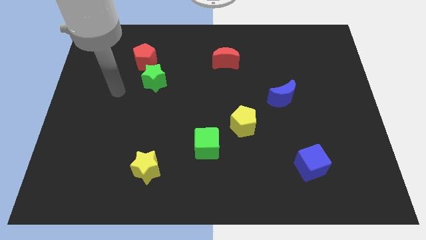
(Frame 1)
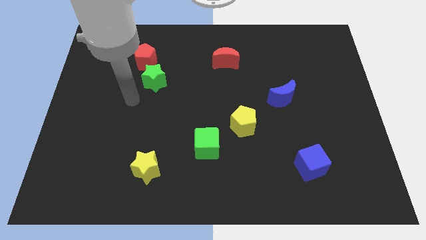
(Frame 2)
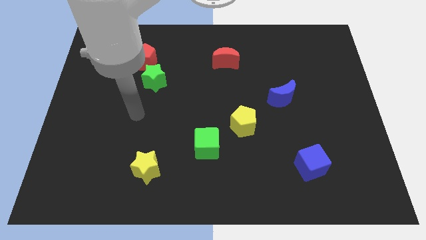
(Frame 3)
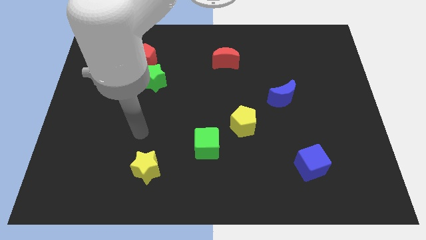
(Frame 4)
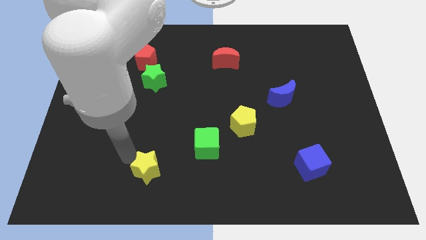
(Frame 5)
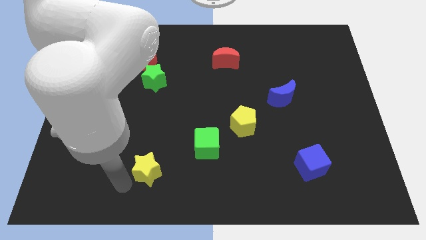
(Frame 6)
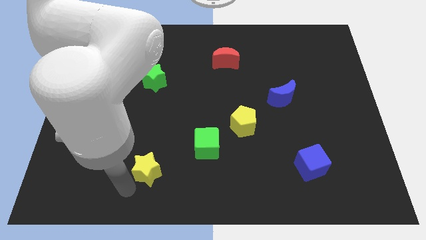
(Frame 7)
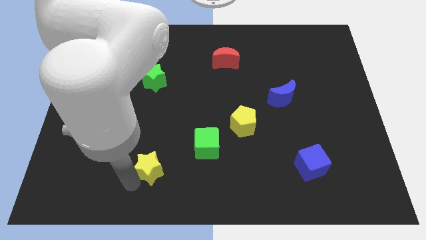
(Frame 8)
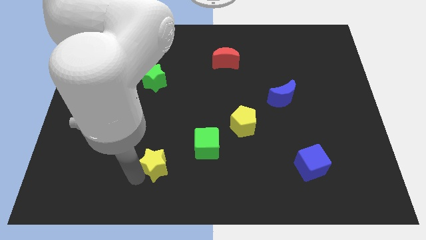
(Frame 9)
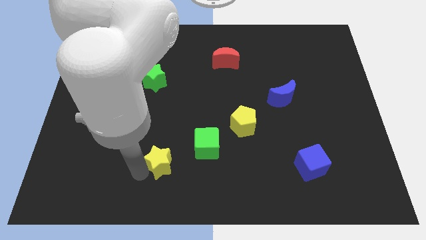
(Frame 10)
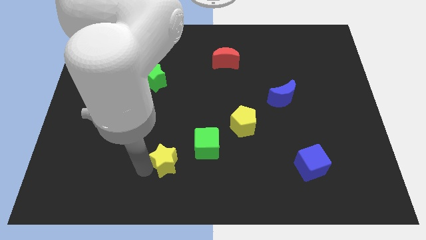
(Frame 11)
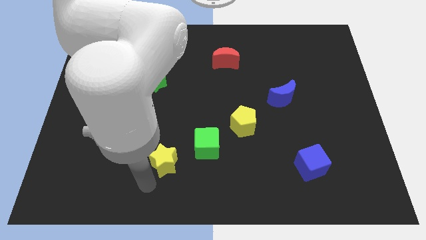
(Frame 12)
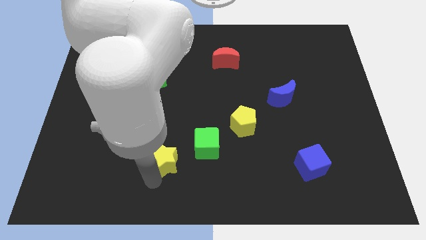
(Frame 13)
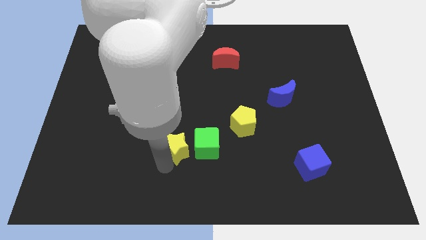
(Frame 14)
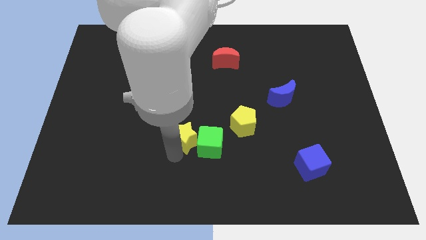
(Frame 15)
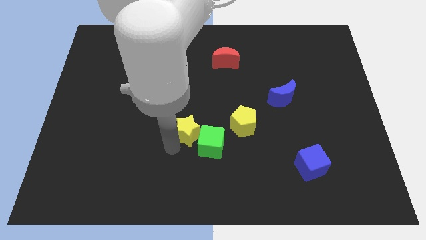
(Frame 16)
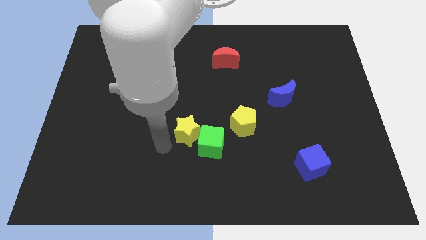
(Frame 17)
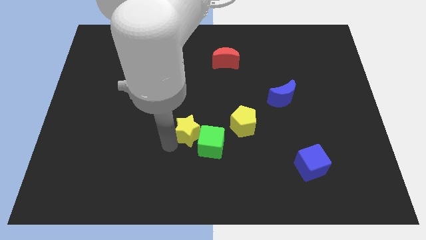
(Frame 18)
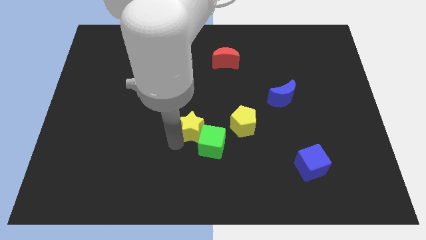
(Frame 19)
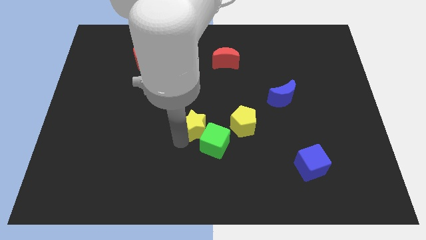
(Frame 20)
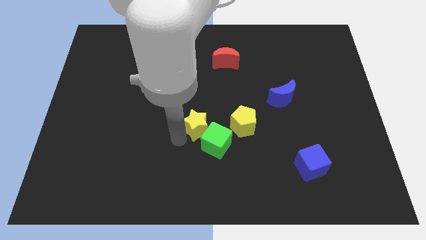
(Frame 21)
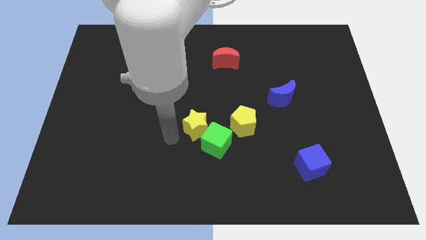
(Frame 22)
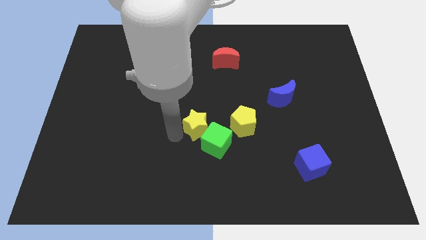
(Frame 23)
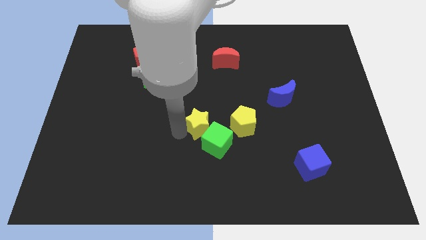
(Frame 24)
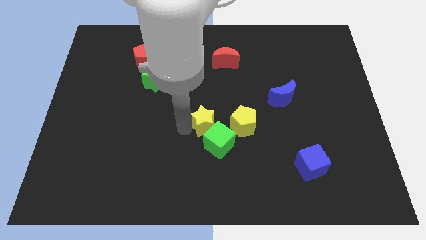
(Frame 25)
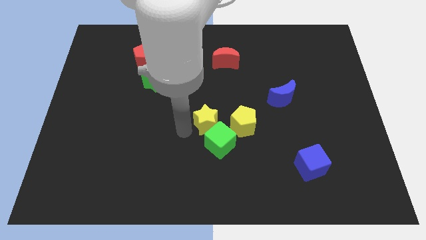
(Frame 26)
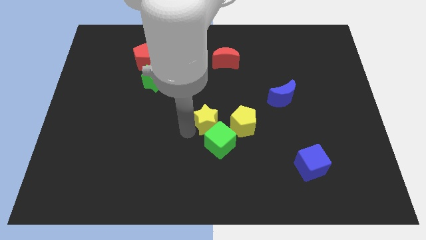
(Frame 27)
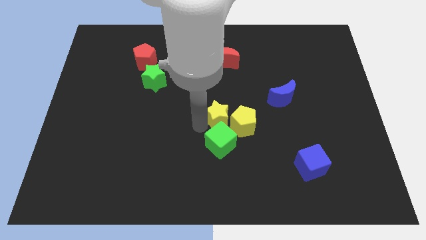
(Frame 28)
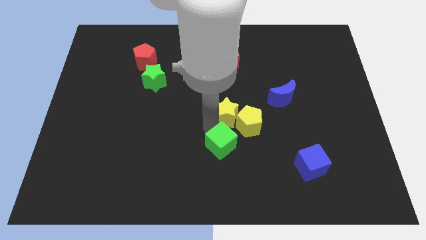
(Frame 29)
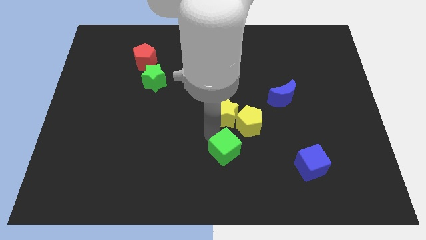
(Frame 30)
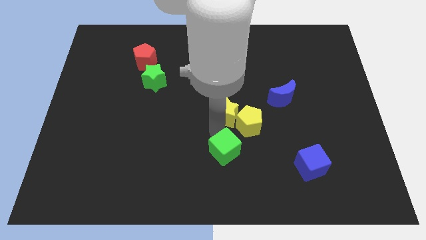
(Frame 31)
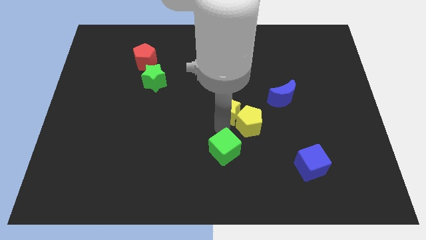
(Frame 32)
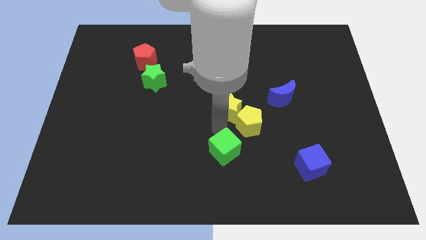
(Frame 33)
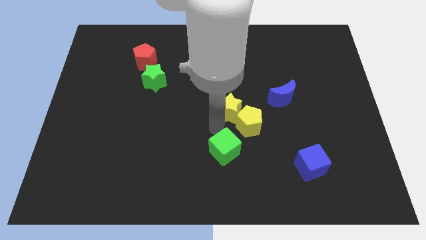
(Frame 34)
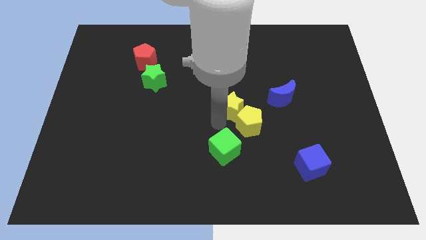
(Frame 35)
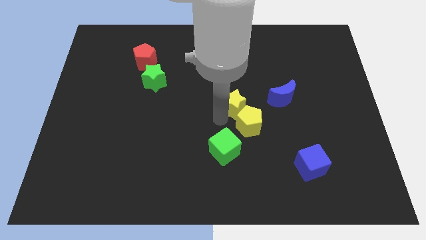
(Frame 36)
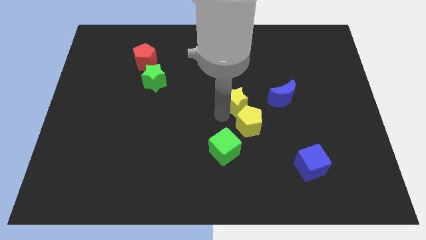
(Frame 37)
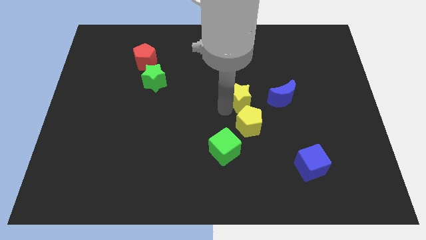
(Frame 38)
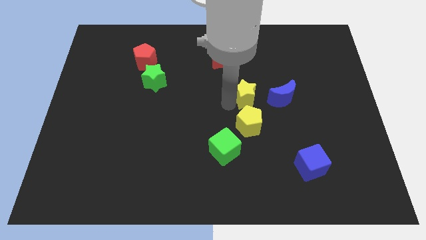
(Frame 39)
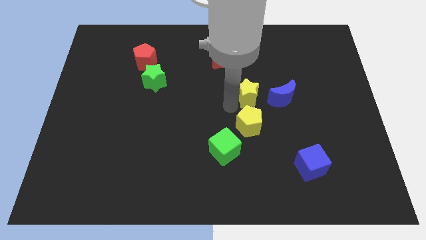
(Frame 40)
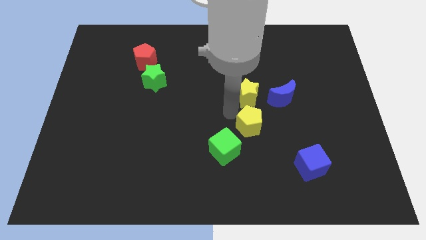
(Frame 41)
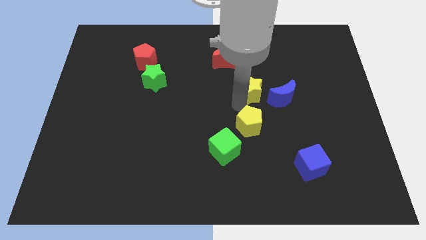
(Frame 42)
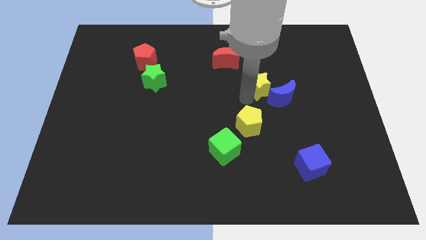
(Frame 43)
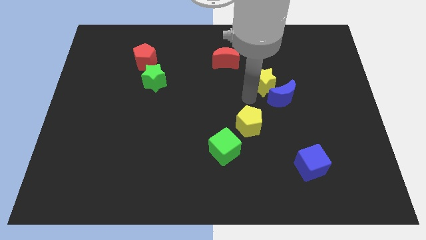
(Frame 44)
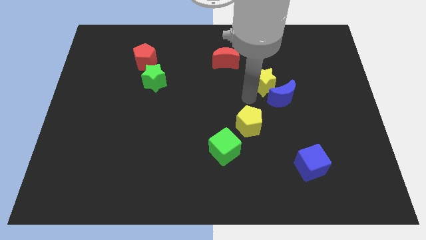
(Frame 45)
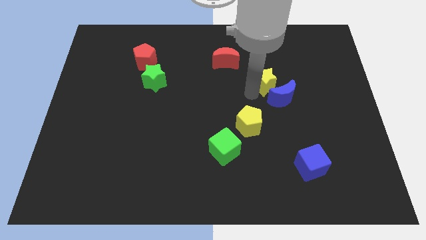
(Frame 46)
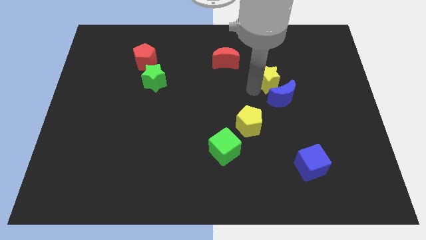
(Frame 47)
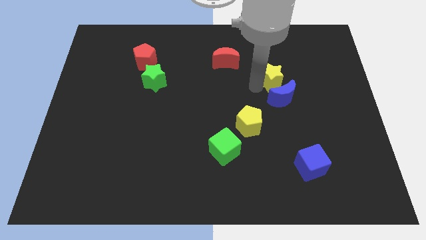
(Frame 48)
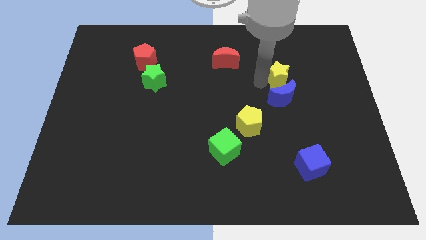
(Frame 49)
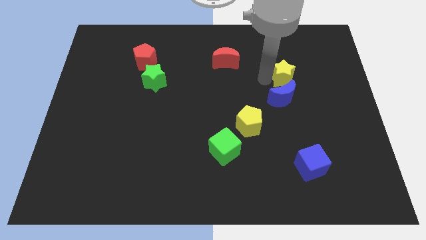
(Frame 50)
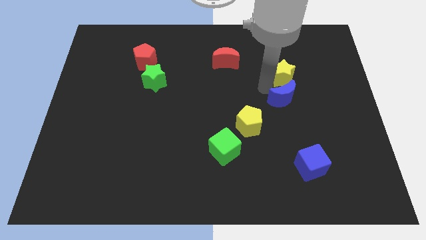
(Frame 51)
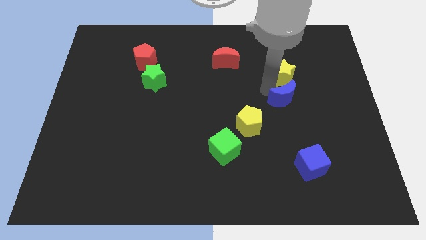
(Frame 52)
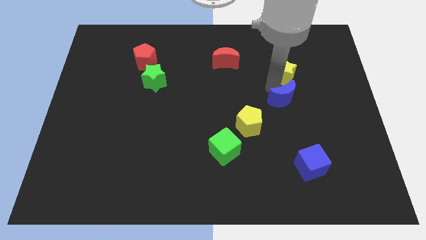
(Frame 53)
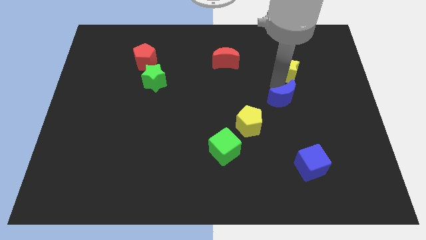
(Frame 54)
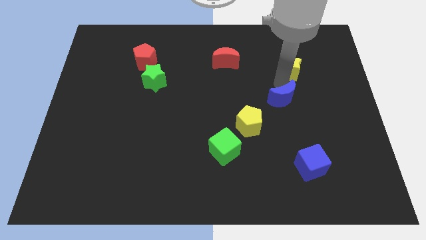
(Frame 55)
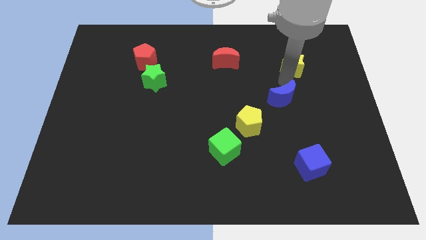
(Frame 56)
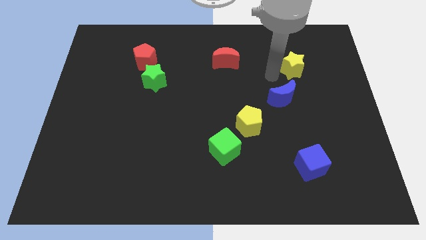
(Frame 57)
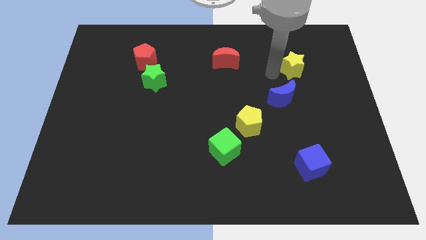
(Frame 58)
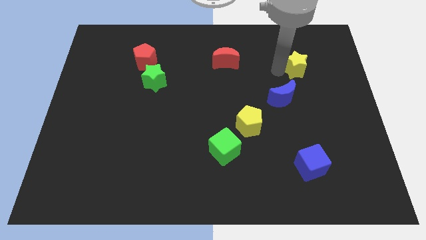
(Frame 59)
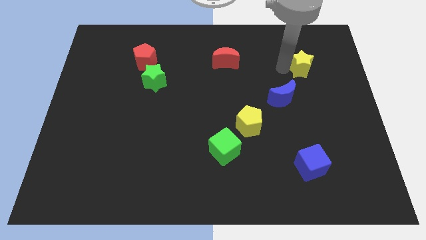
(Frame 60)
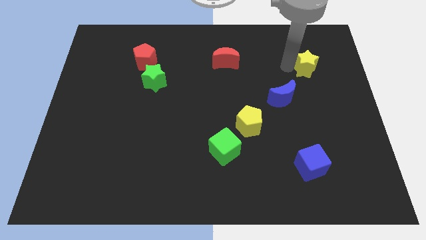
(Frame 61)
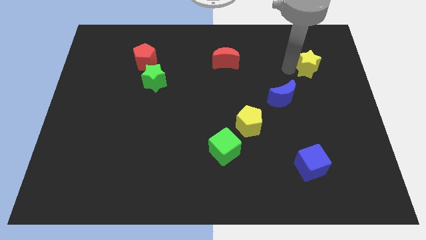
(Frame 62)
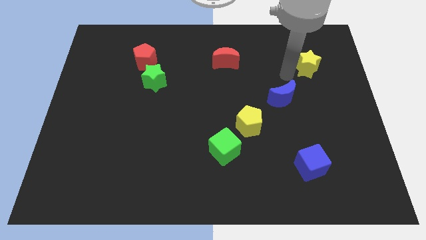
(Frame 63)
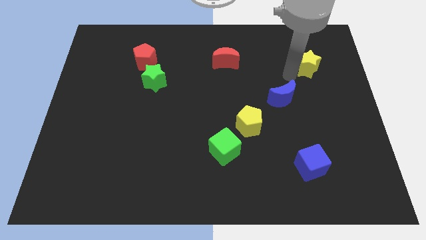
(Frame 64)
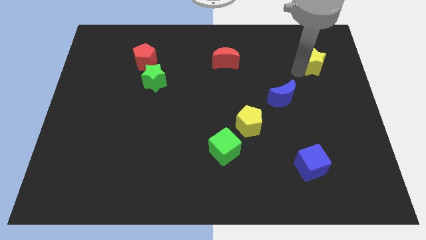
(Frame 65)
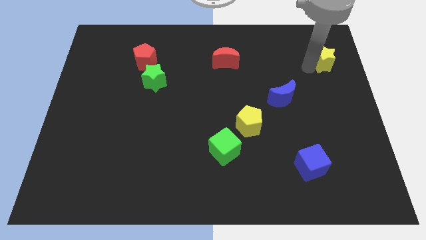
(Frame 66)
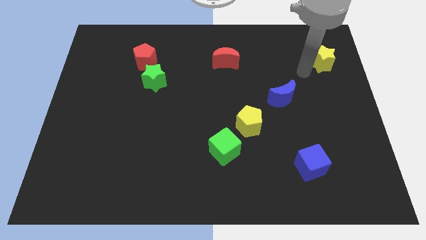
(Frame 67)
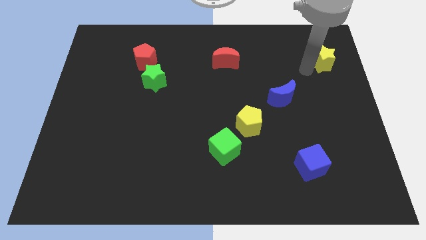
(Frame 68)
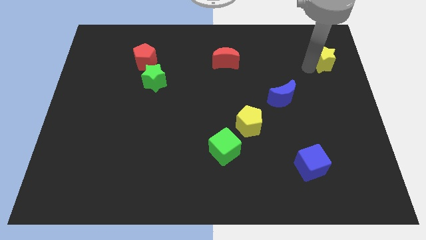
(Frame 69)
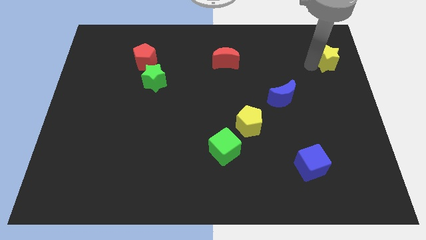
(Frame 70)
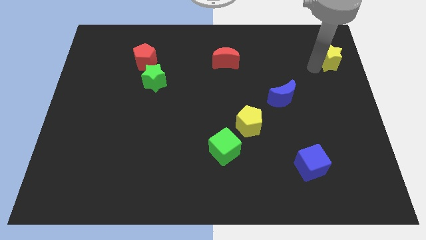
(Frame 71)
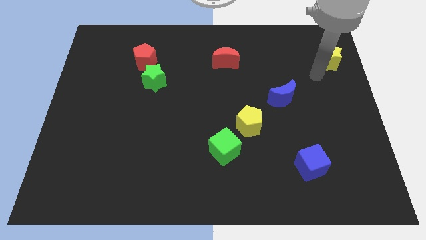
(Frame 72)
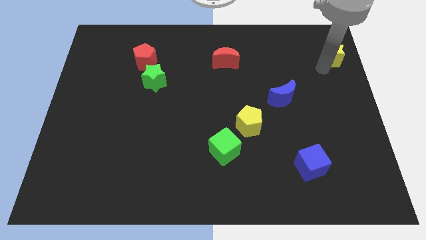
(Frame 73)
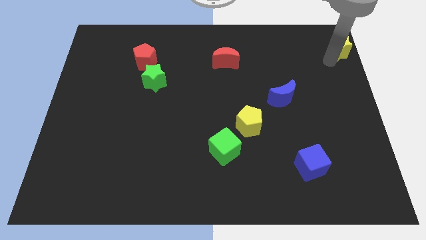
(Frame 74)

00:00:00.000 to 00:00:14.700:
push the yellow star to the top right corner
